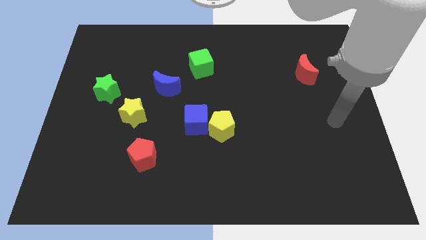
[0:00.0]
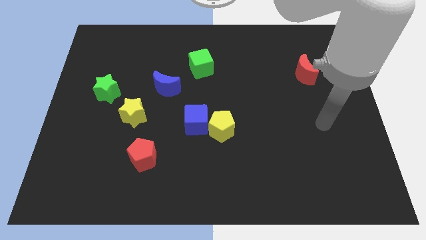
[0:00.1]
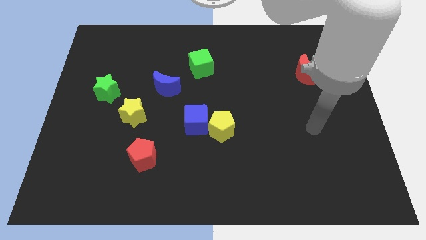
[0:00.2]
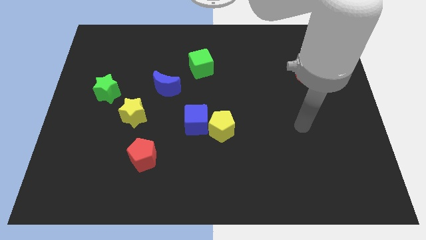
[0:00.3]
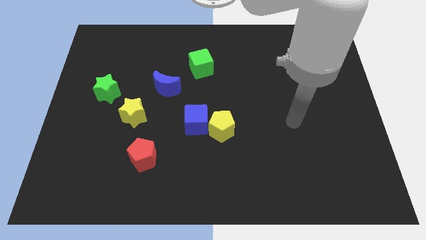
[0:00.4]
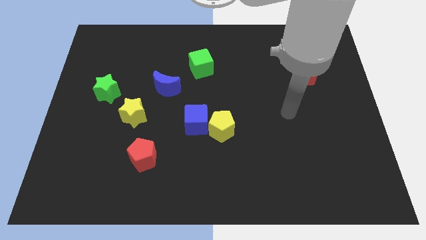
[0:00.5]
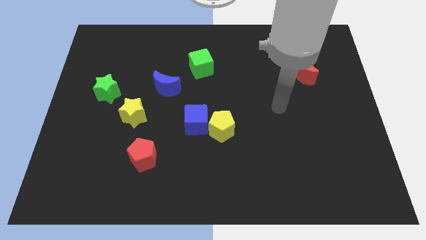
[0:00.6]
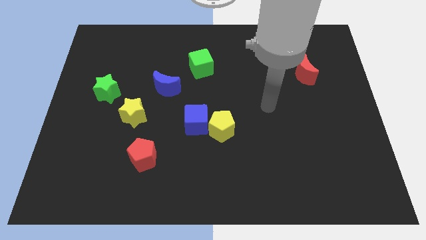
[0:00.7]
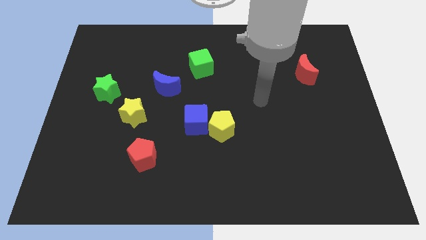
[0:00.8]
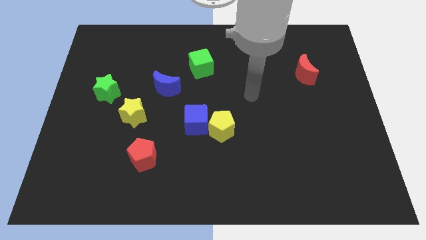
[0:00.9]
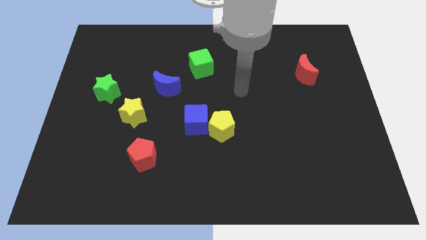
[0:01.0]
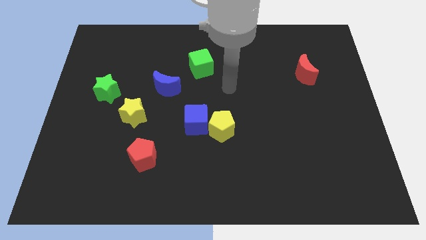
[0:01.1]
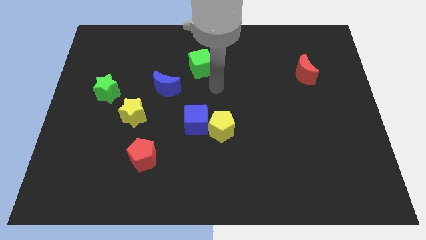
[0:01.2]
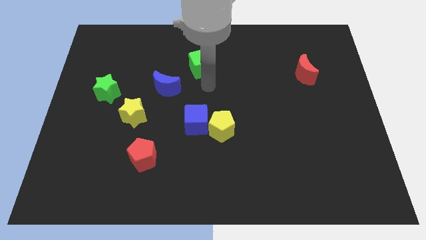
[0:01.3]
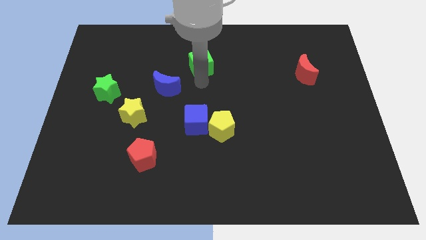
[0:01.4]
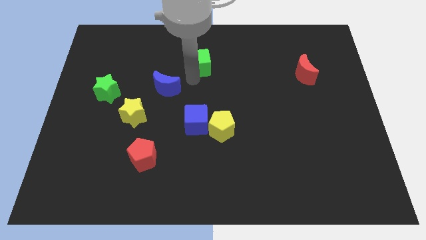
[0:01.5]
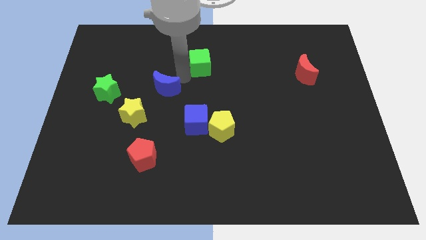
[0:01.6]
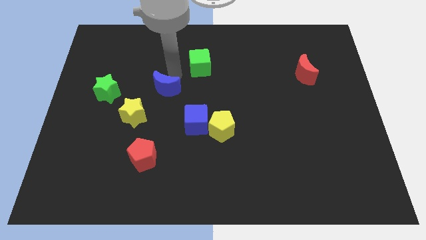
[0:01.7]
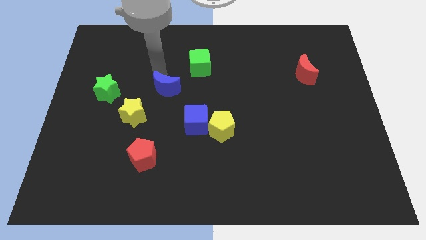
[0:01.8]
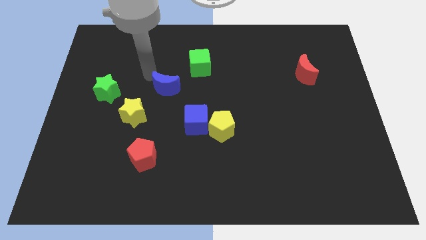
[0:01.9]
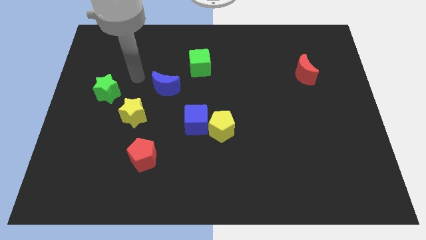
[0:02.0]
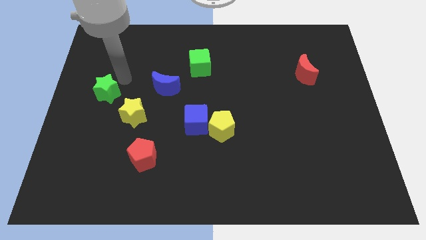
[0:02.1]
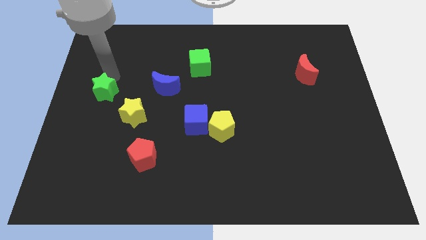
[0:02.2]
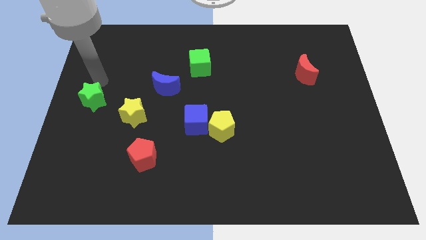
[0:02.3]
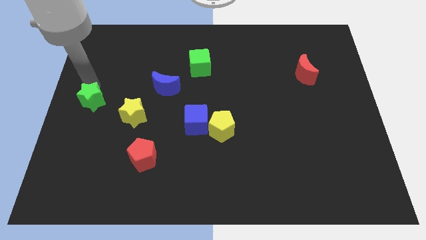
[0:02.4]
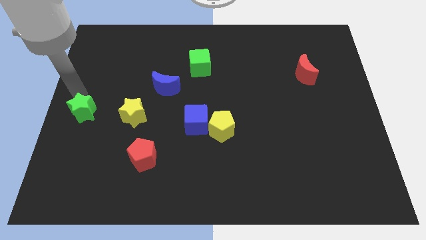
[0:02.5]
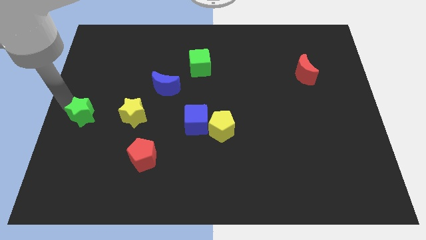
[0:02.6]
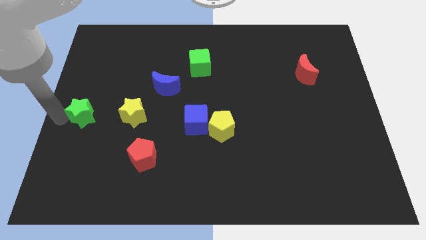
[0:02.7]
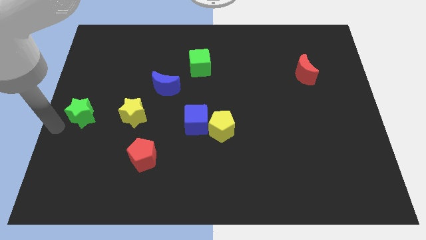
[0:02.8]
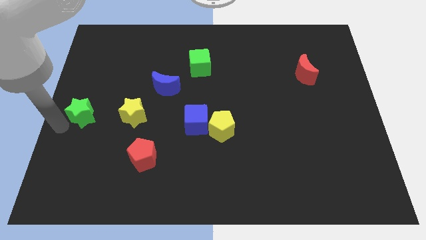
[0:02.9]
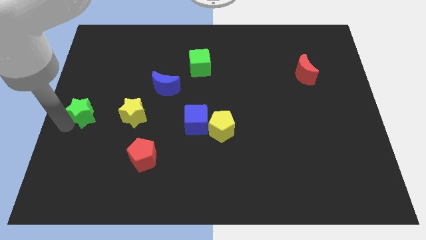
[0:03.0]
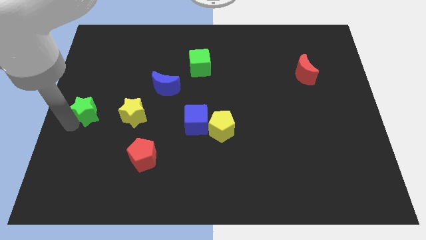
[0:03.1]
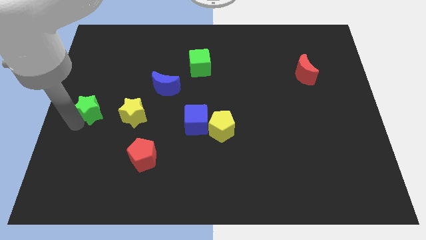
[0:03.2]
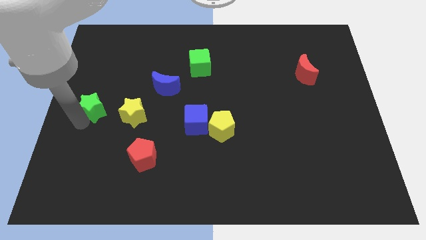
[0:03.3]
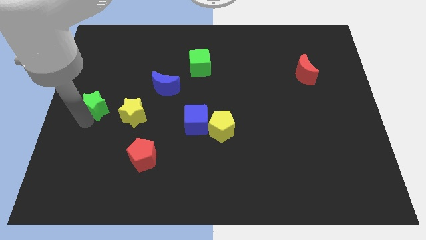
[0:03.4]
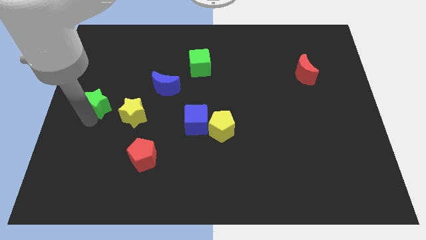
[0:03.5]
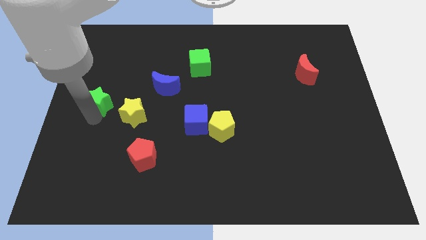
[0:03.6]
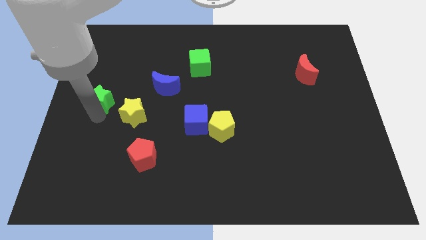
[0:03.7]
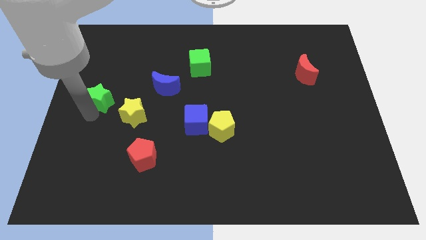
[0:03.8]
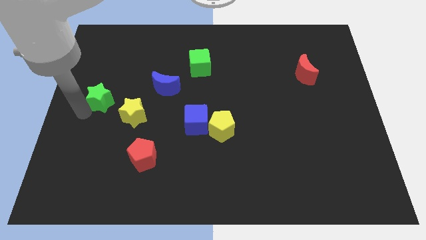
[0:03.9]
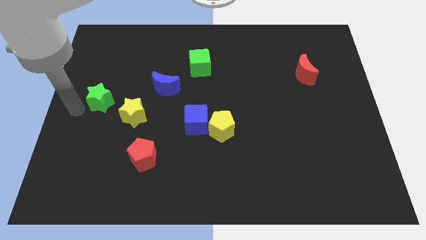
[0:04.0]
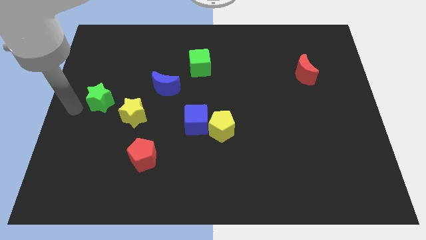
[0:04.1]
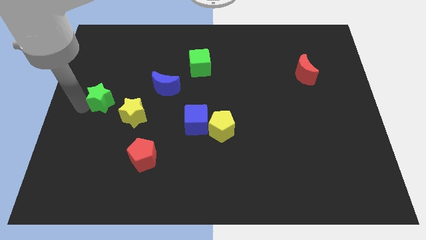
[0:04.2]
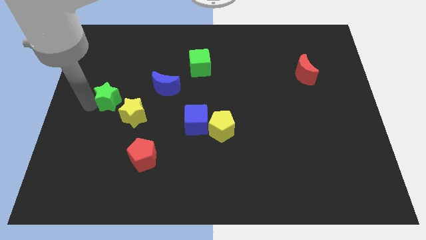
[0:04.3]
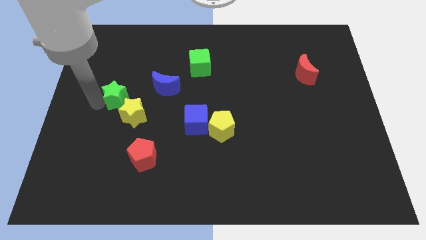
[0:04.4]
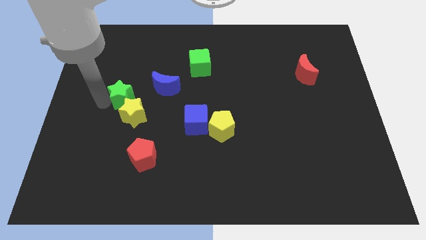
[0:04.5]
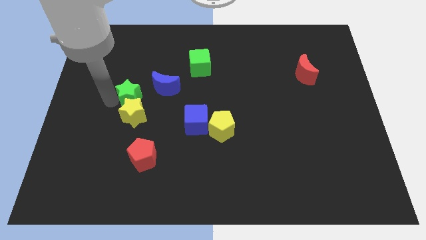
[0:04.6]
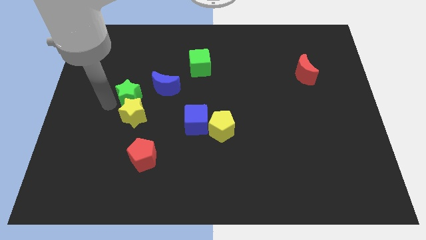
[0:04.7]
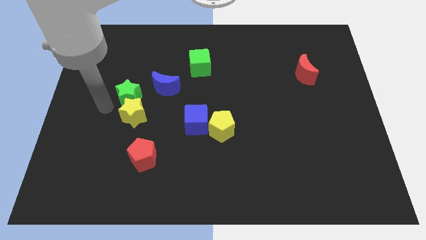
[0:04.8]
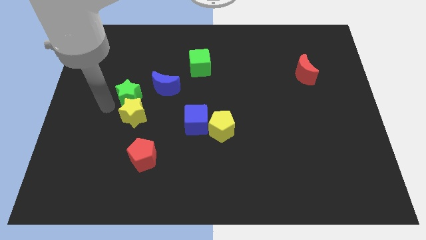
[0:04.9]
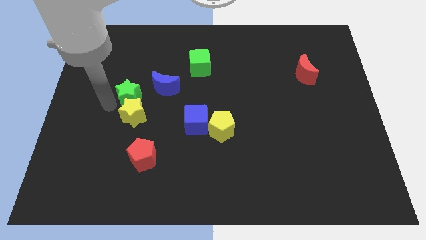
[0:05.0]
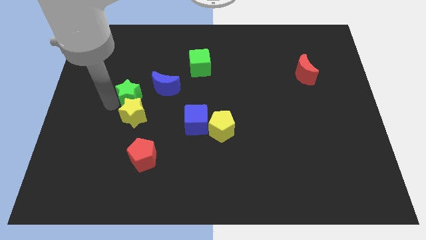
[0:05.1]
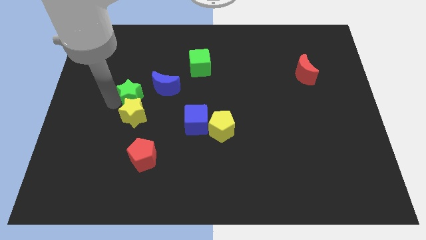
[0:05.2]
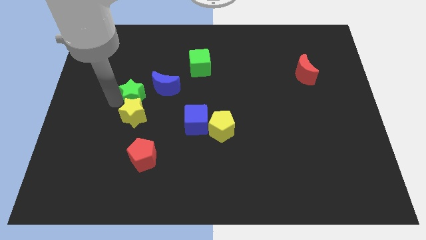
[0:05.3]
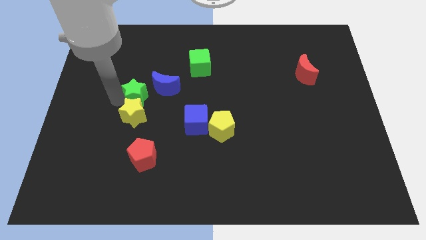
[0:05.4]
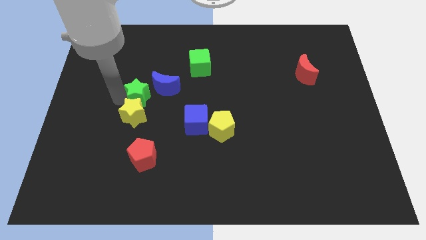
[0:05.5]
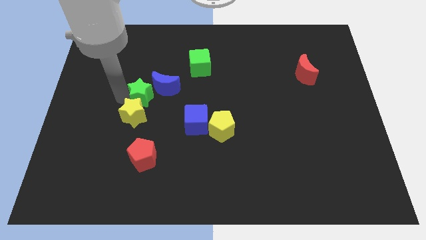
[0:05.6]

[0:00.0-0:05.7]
put the green star close to the blue moon

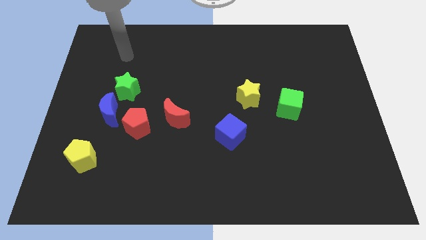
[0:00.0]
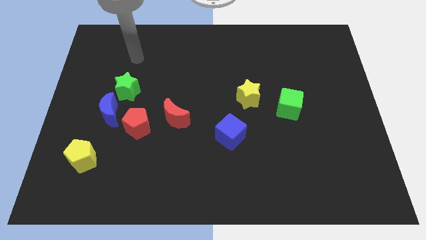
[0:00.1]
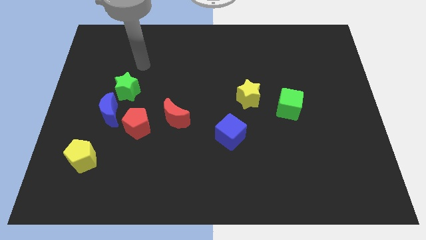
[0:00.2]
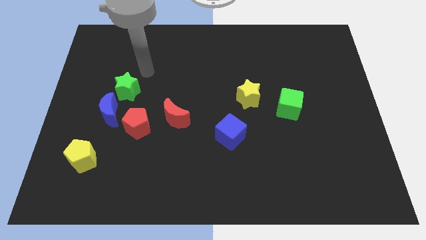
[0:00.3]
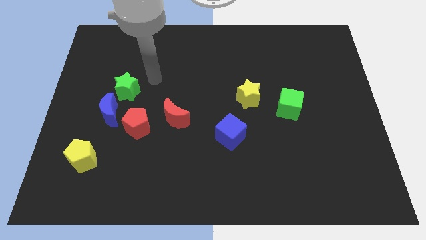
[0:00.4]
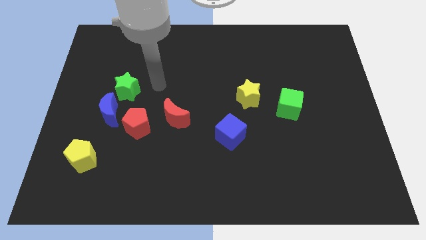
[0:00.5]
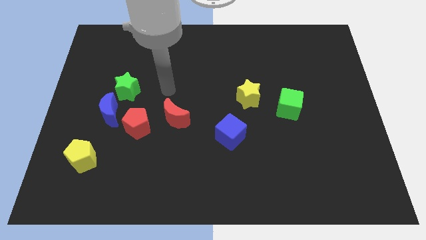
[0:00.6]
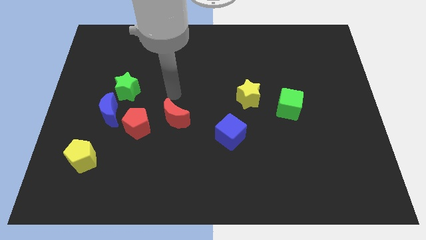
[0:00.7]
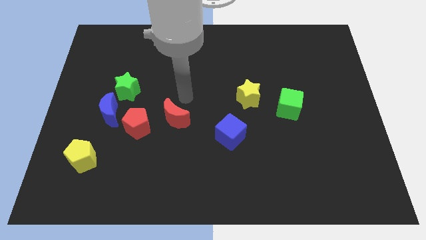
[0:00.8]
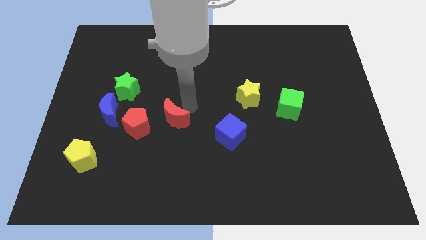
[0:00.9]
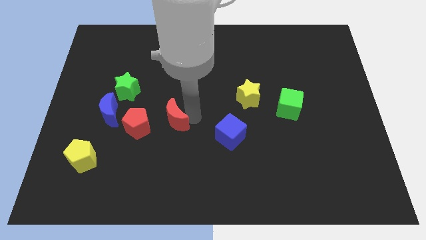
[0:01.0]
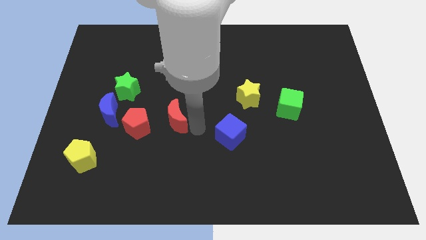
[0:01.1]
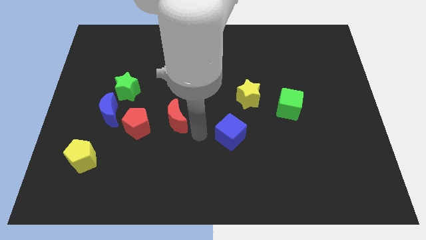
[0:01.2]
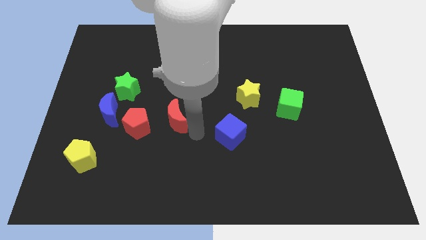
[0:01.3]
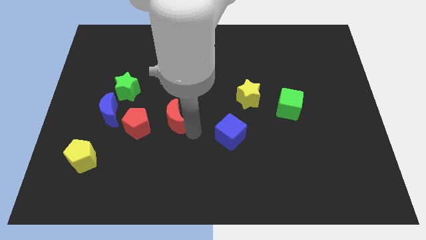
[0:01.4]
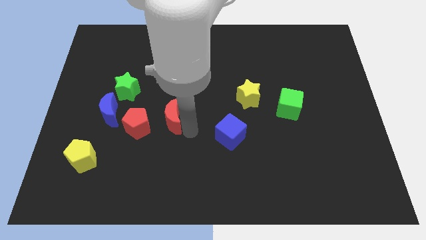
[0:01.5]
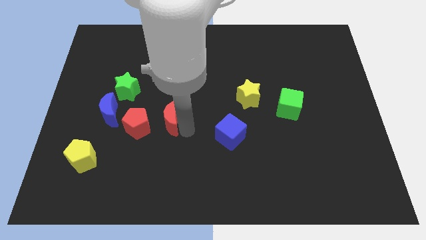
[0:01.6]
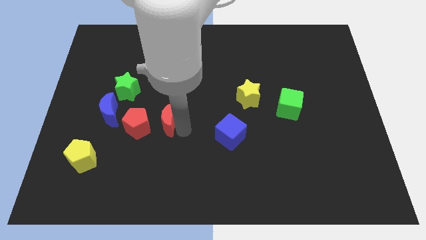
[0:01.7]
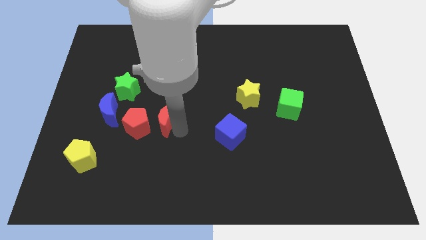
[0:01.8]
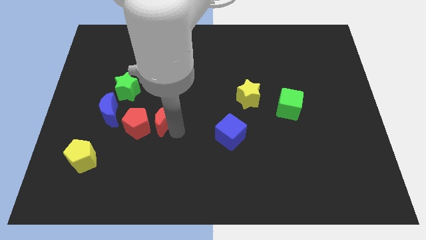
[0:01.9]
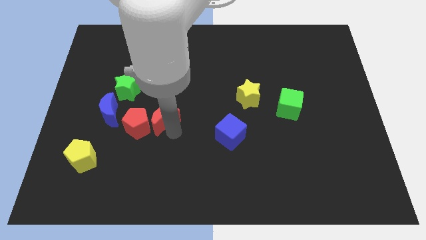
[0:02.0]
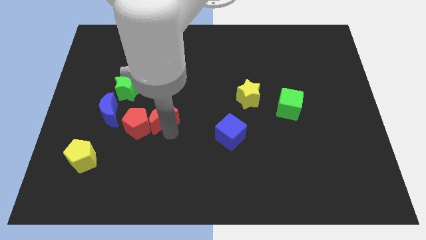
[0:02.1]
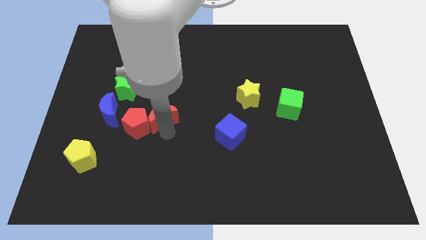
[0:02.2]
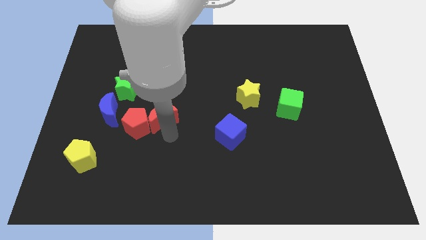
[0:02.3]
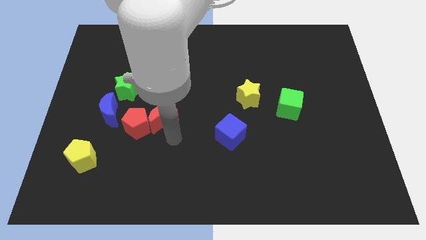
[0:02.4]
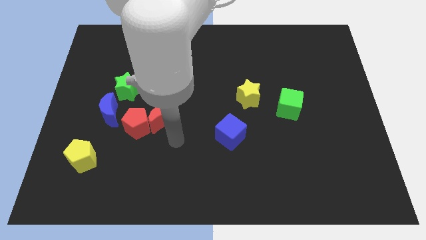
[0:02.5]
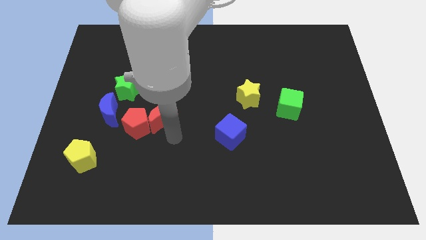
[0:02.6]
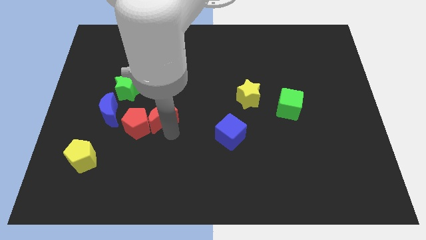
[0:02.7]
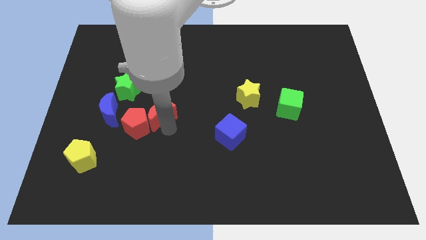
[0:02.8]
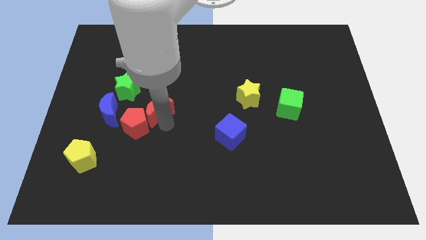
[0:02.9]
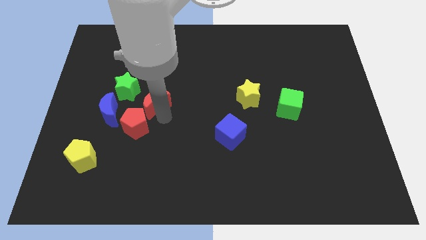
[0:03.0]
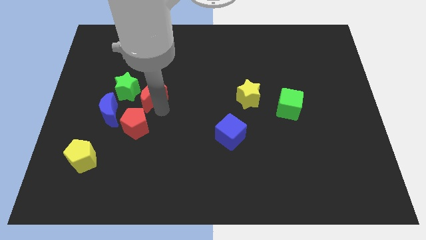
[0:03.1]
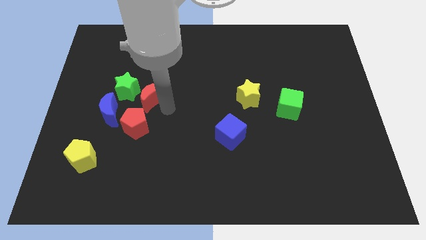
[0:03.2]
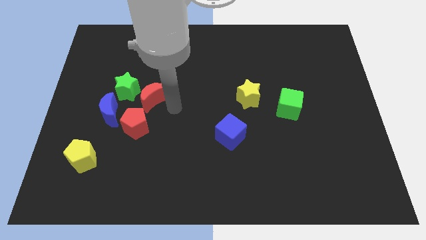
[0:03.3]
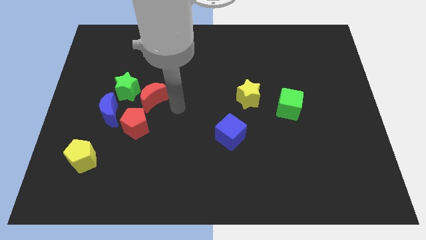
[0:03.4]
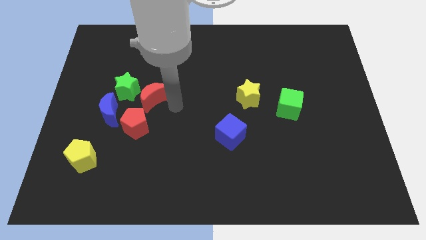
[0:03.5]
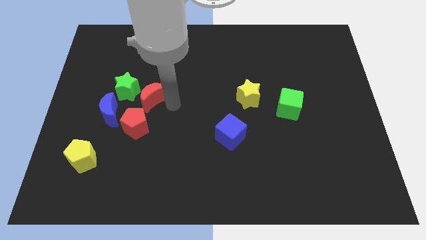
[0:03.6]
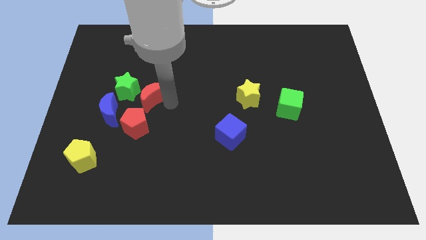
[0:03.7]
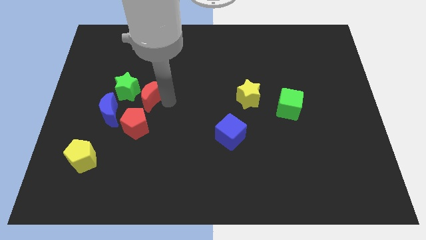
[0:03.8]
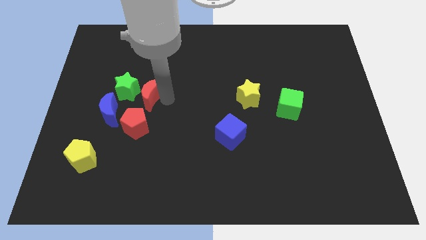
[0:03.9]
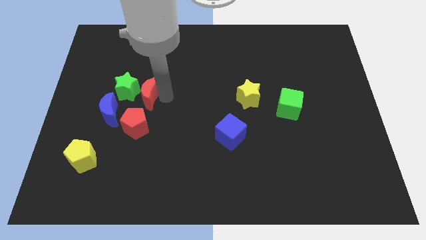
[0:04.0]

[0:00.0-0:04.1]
put the red moon towards the green star
